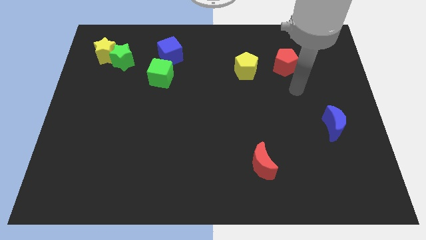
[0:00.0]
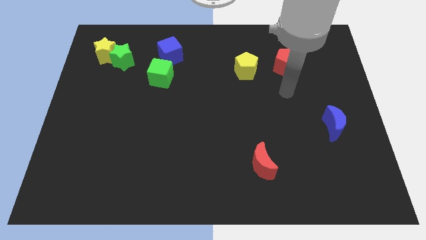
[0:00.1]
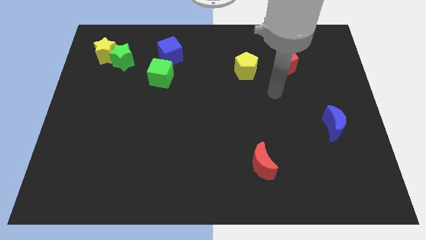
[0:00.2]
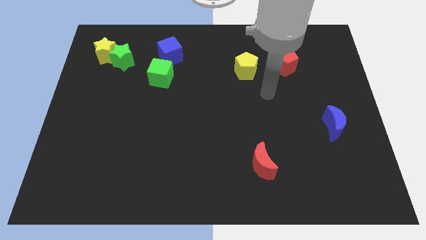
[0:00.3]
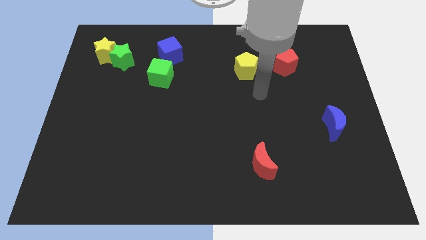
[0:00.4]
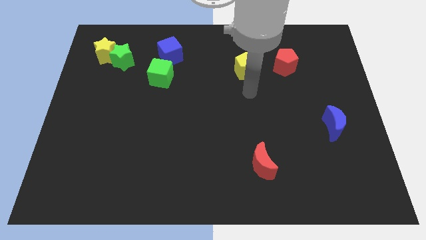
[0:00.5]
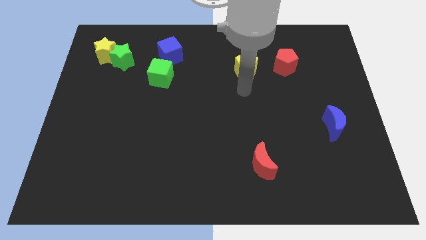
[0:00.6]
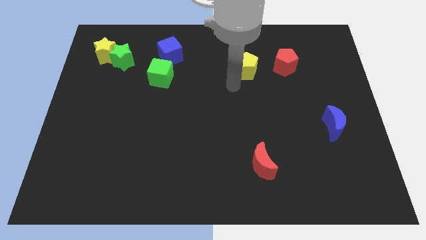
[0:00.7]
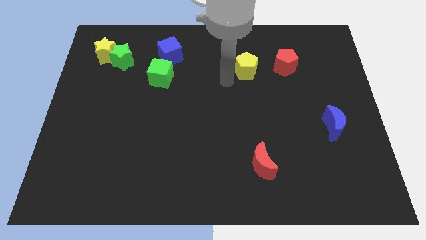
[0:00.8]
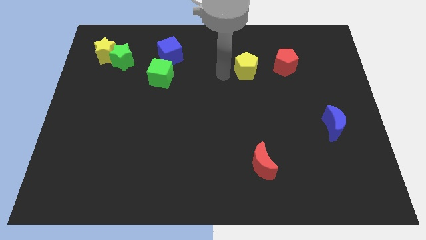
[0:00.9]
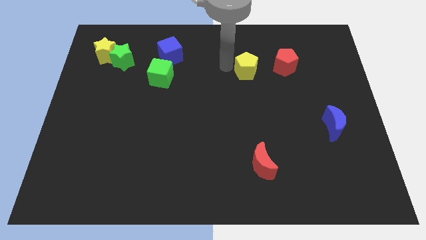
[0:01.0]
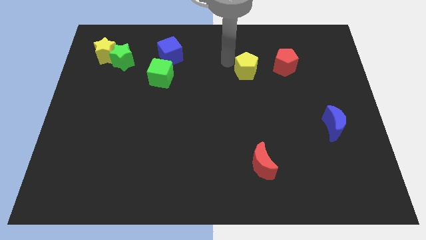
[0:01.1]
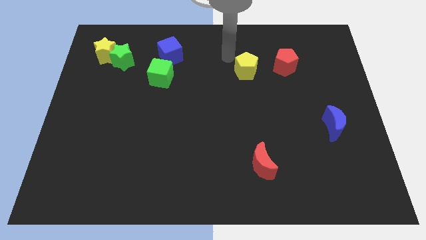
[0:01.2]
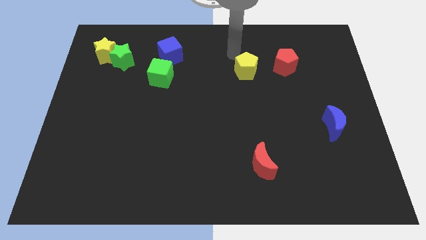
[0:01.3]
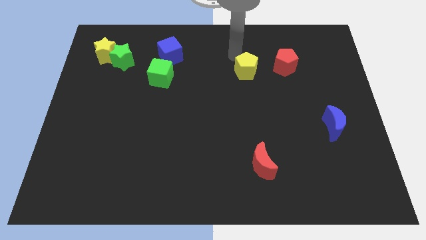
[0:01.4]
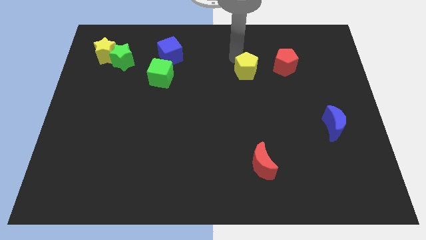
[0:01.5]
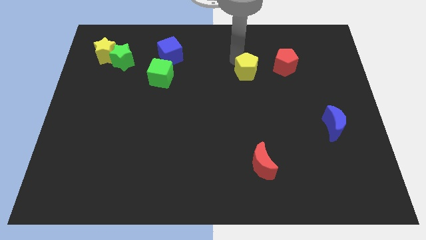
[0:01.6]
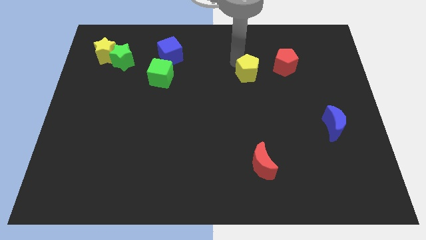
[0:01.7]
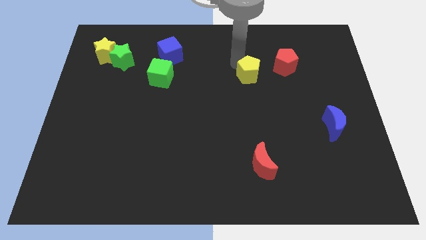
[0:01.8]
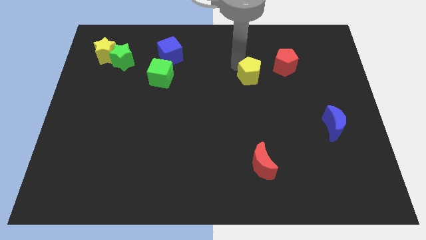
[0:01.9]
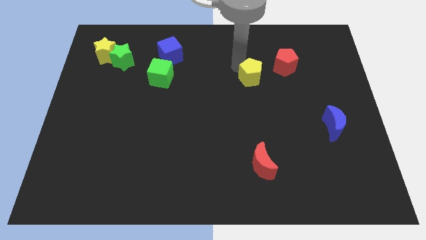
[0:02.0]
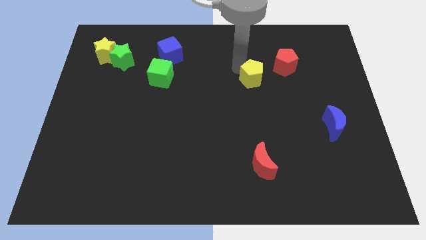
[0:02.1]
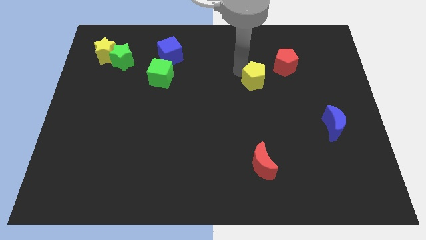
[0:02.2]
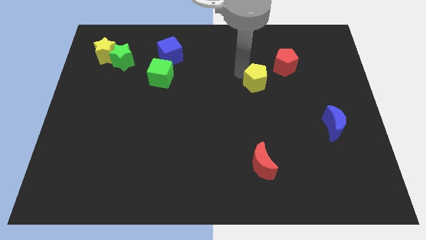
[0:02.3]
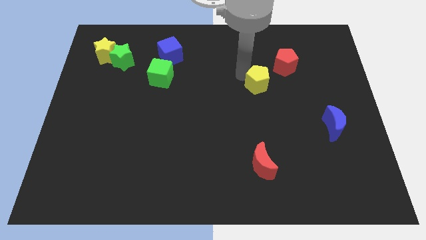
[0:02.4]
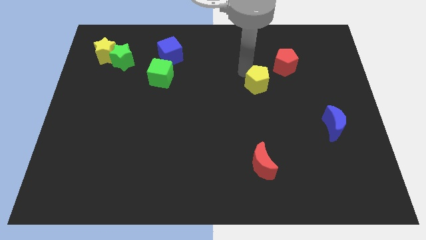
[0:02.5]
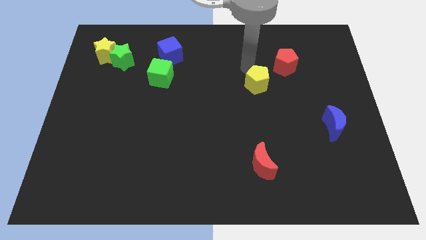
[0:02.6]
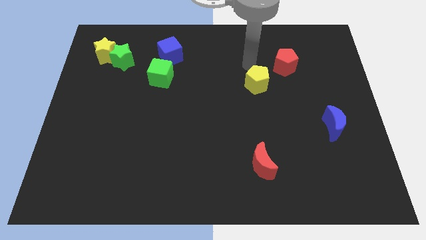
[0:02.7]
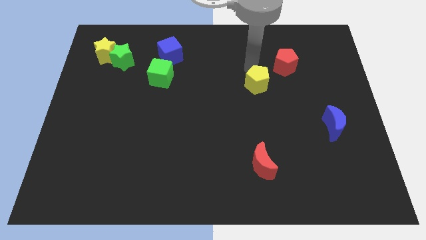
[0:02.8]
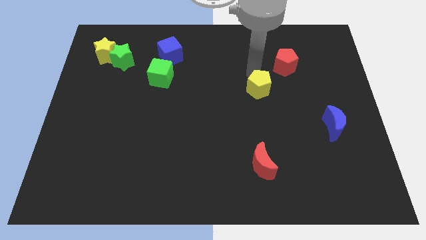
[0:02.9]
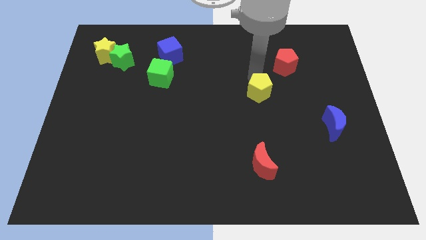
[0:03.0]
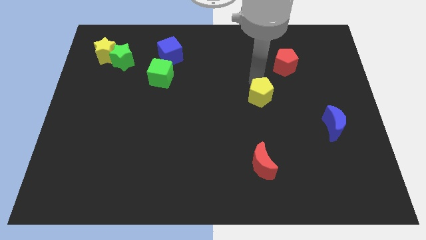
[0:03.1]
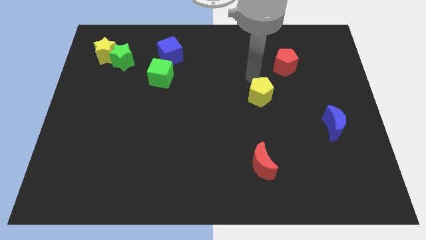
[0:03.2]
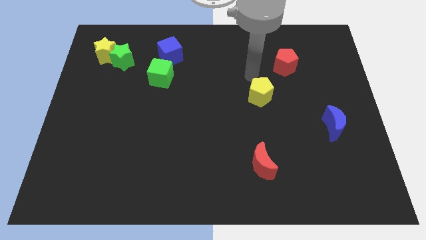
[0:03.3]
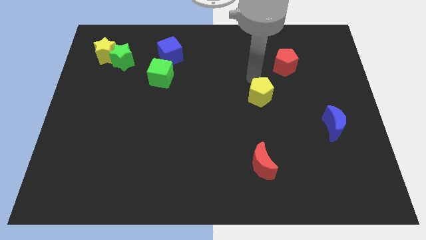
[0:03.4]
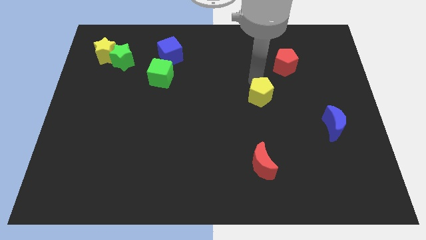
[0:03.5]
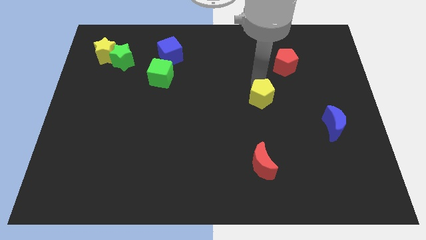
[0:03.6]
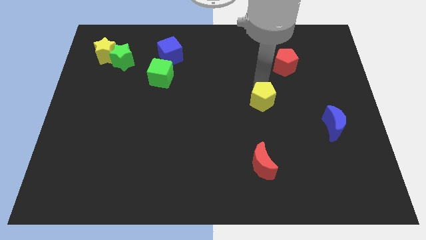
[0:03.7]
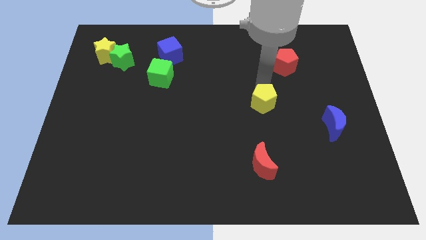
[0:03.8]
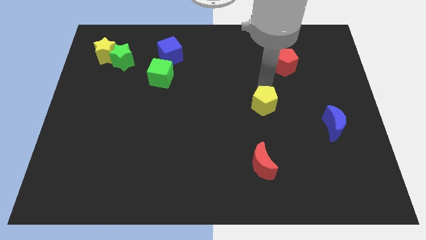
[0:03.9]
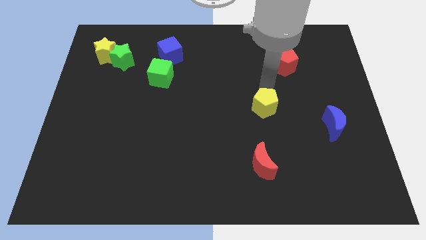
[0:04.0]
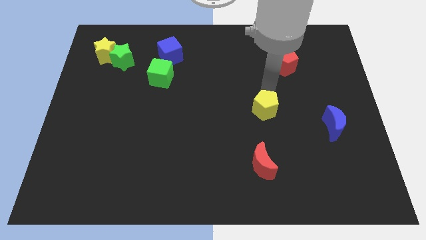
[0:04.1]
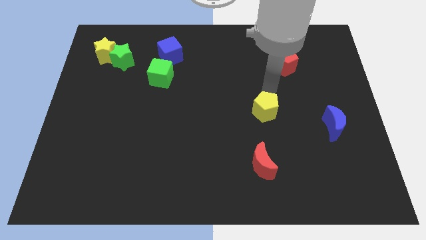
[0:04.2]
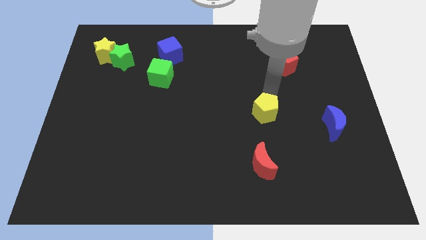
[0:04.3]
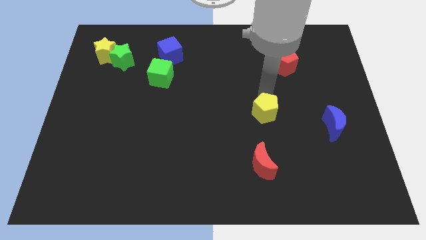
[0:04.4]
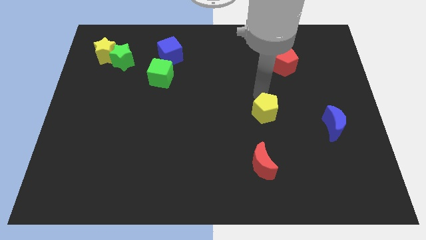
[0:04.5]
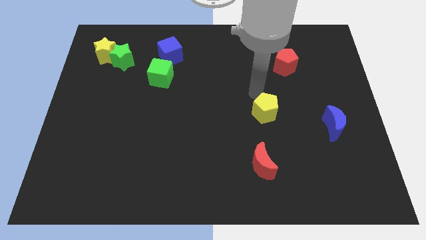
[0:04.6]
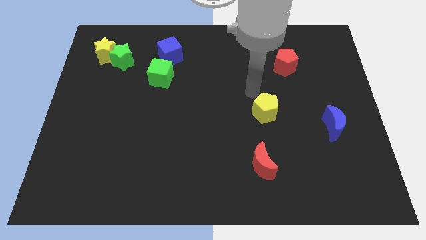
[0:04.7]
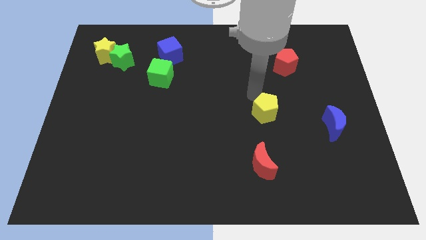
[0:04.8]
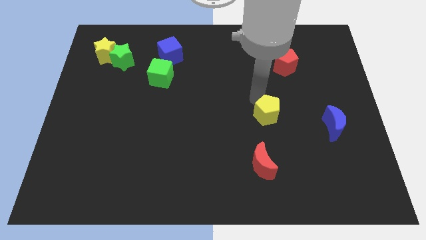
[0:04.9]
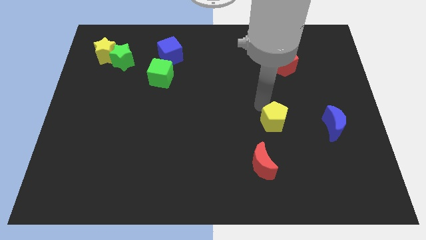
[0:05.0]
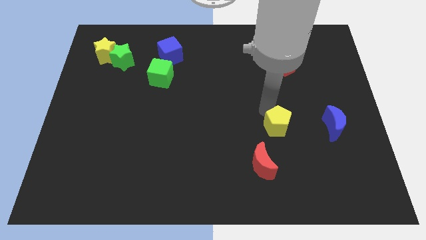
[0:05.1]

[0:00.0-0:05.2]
move the yellow pentagon diagonally up and to the right of the red moon

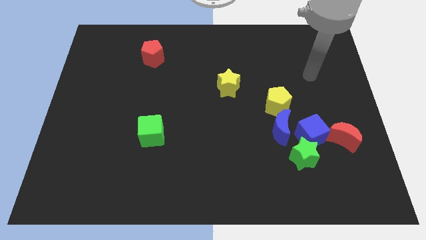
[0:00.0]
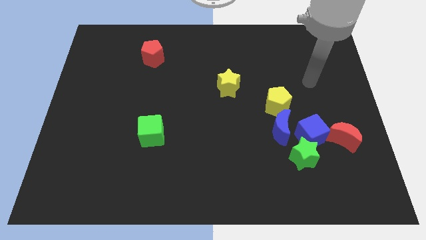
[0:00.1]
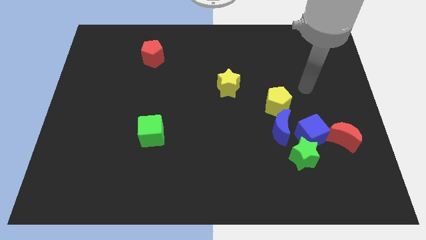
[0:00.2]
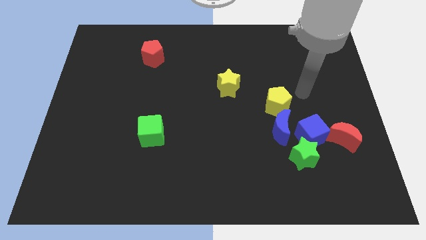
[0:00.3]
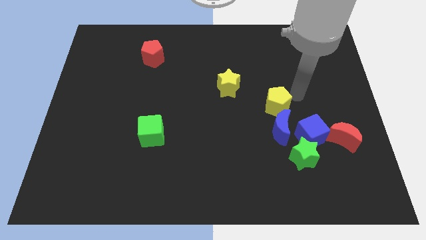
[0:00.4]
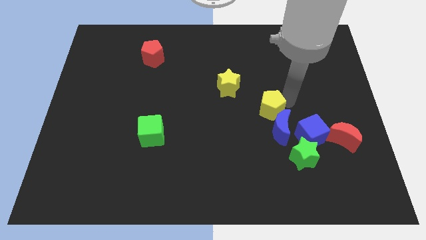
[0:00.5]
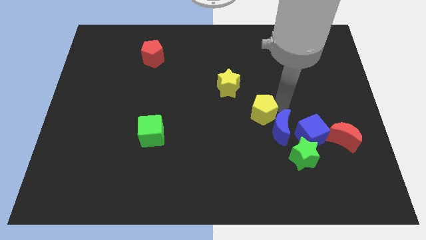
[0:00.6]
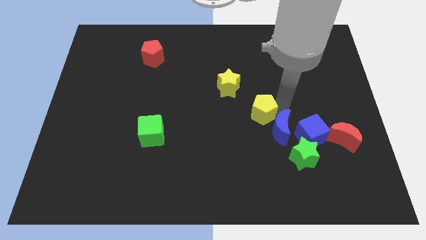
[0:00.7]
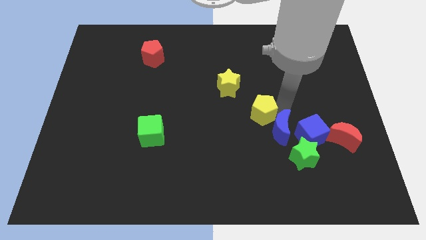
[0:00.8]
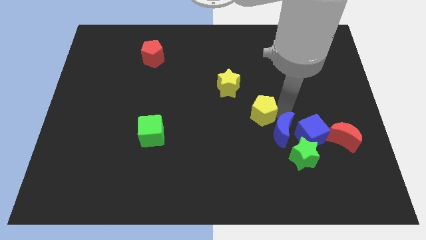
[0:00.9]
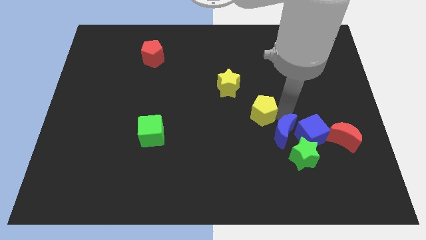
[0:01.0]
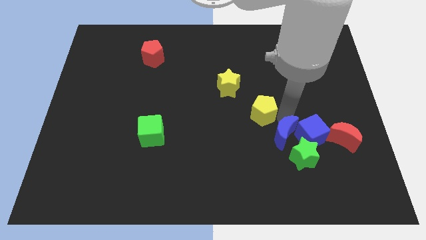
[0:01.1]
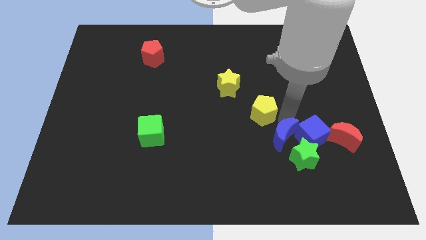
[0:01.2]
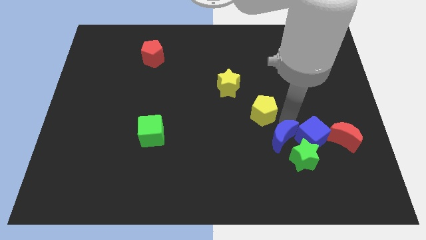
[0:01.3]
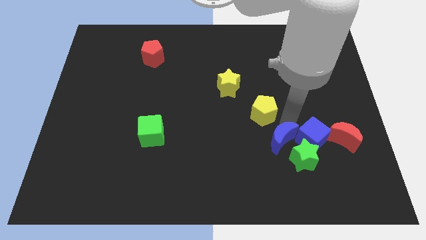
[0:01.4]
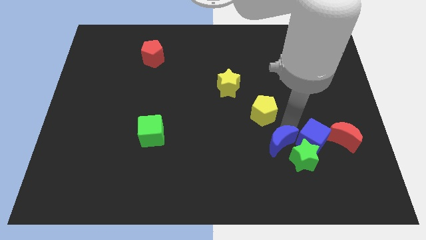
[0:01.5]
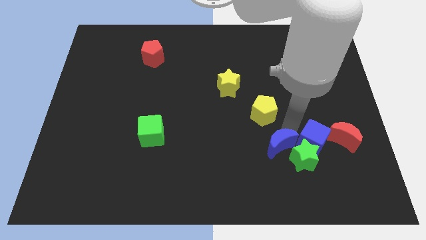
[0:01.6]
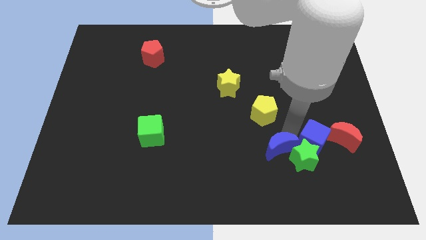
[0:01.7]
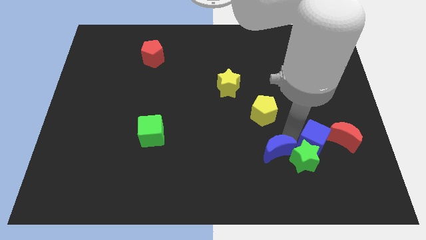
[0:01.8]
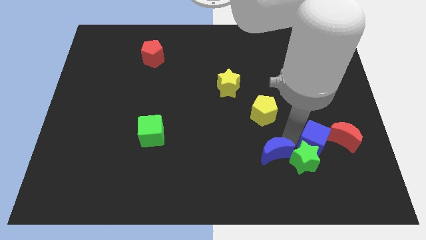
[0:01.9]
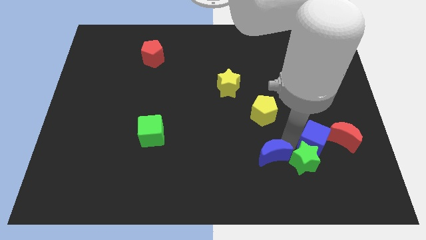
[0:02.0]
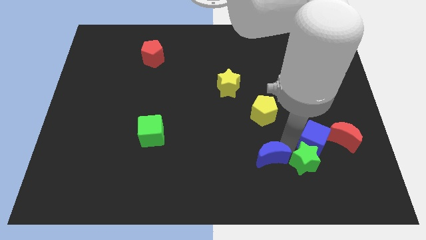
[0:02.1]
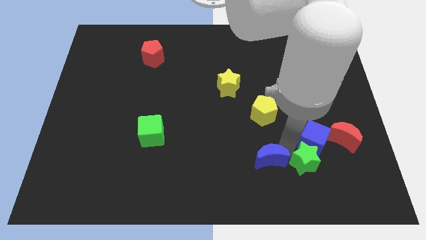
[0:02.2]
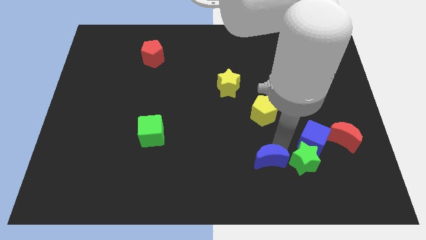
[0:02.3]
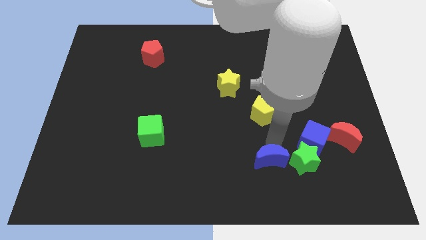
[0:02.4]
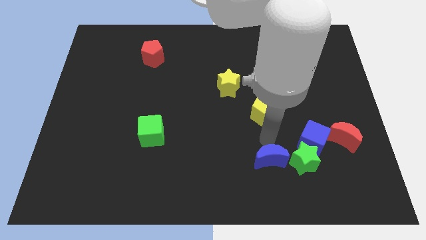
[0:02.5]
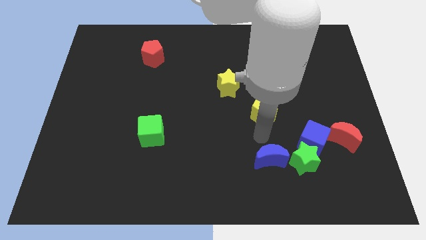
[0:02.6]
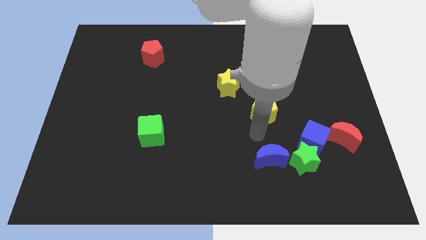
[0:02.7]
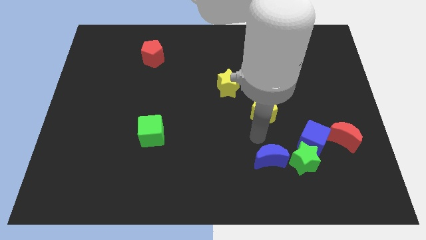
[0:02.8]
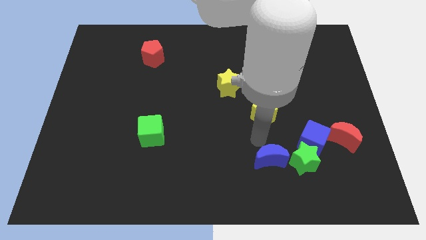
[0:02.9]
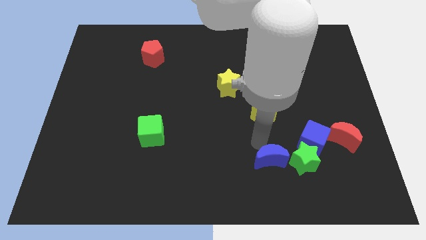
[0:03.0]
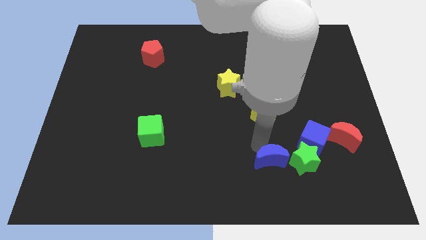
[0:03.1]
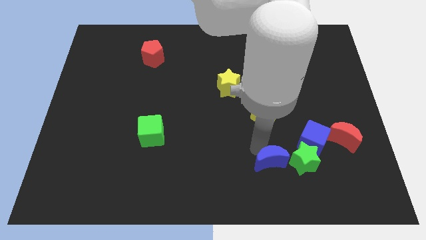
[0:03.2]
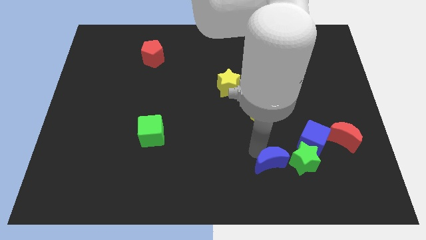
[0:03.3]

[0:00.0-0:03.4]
push the blue moon to the bottom left side of the green star
